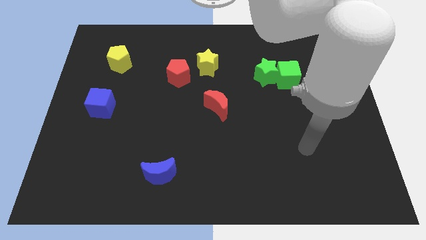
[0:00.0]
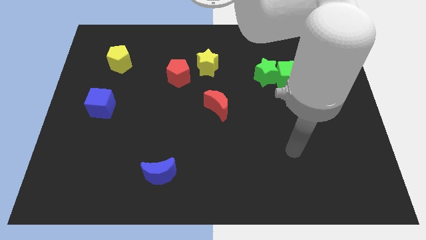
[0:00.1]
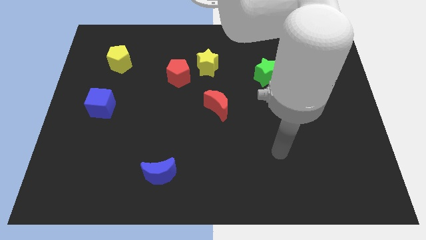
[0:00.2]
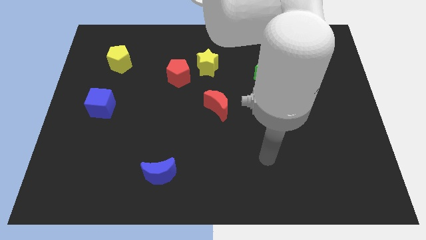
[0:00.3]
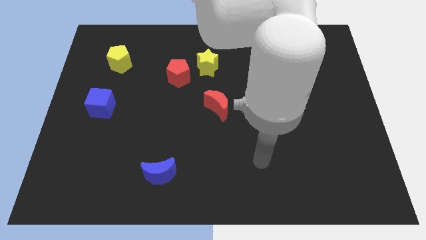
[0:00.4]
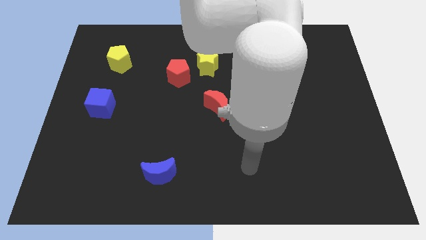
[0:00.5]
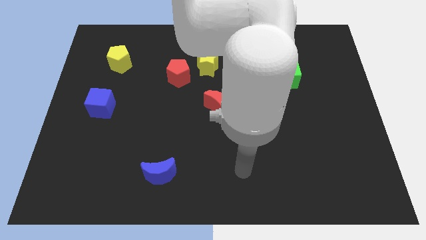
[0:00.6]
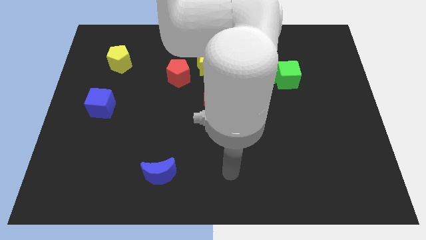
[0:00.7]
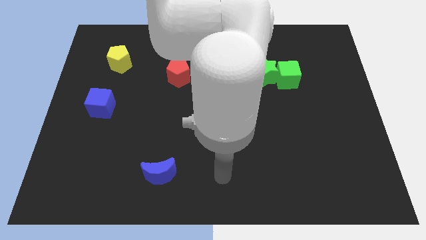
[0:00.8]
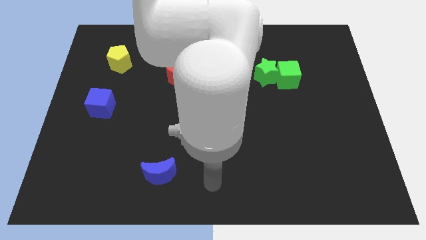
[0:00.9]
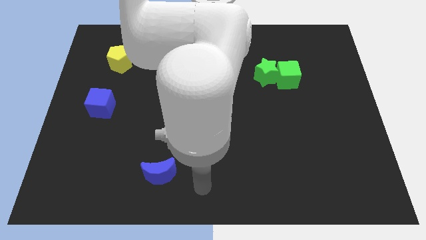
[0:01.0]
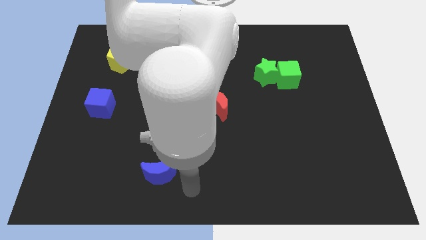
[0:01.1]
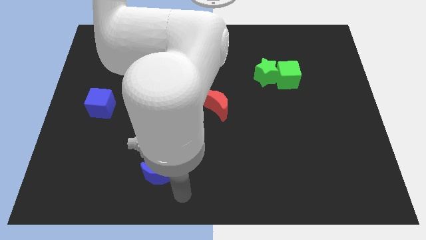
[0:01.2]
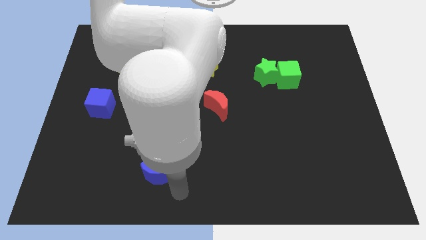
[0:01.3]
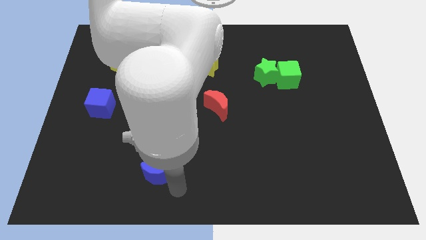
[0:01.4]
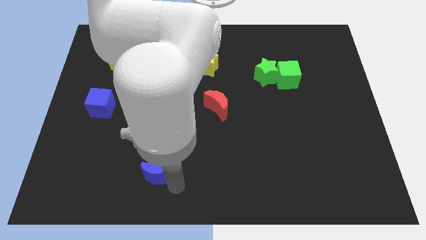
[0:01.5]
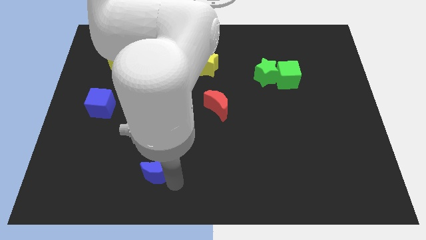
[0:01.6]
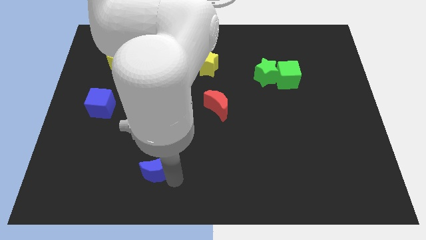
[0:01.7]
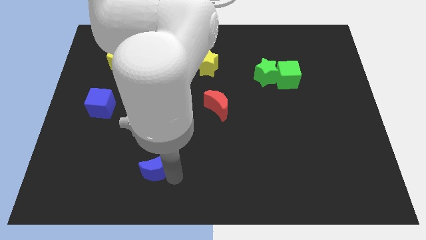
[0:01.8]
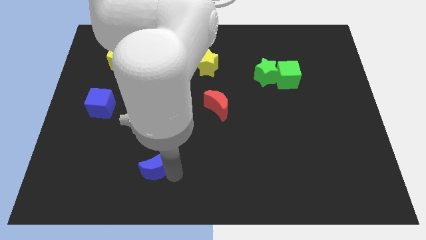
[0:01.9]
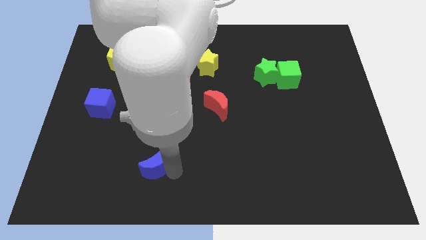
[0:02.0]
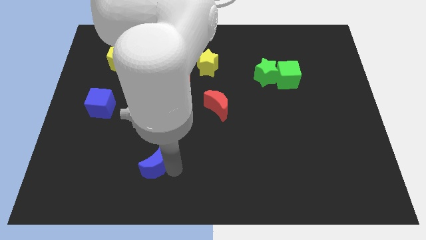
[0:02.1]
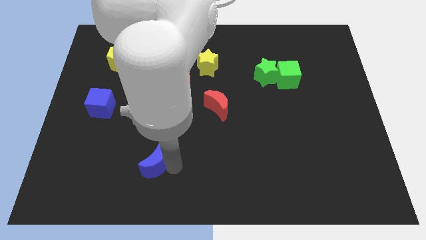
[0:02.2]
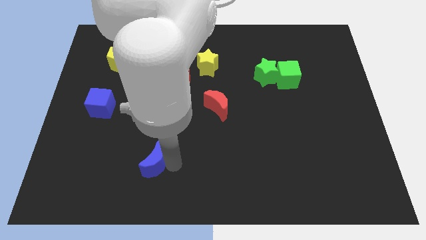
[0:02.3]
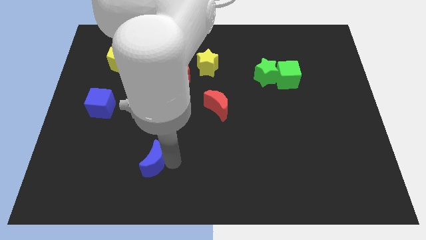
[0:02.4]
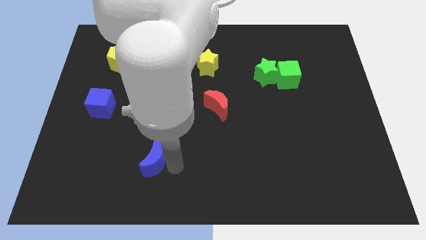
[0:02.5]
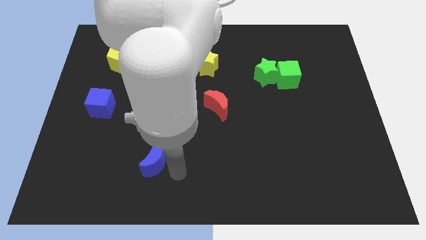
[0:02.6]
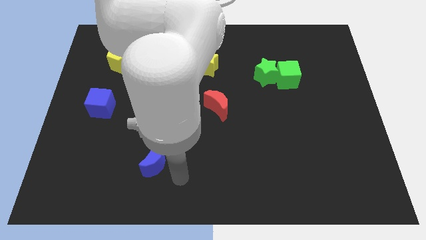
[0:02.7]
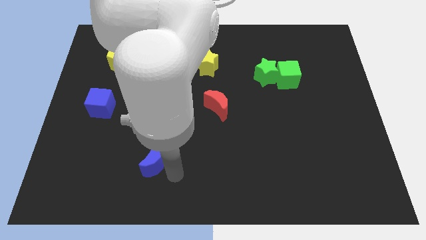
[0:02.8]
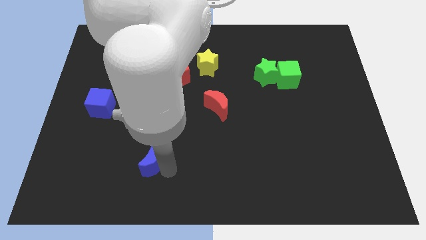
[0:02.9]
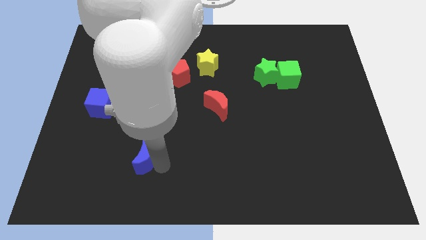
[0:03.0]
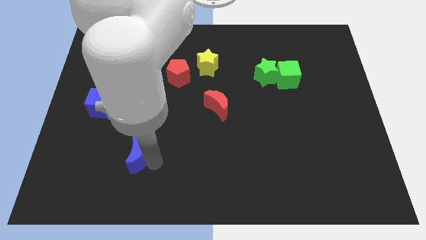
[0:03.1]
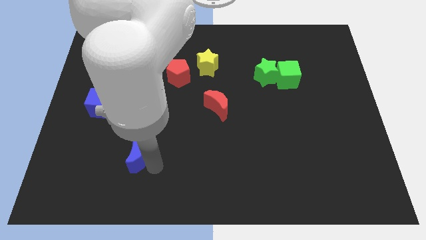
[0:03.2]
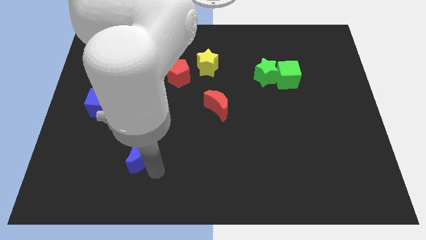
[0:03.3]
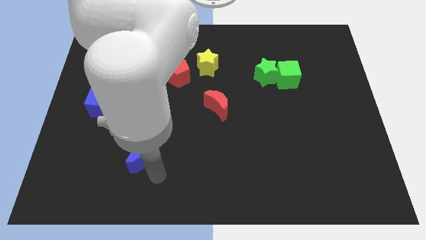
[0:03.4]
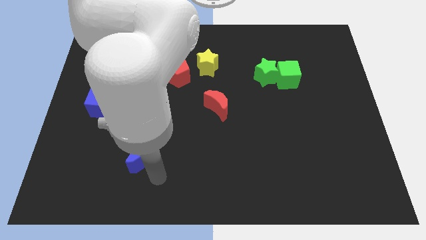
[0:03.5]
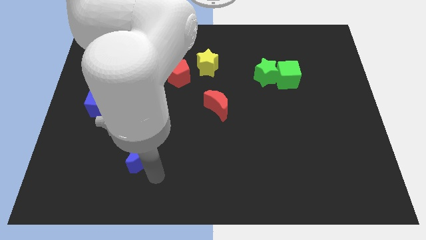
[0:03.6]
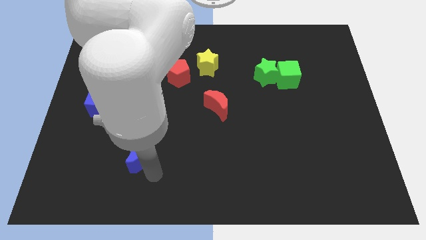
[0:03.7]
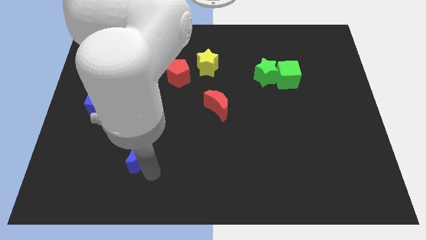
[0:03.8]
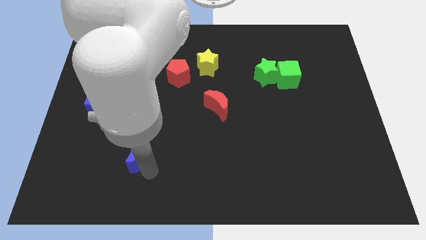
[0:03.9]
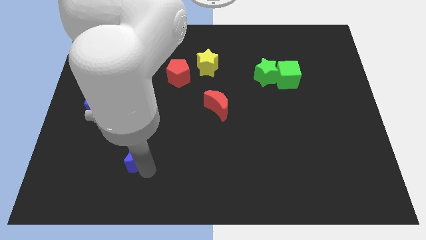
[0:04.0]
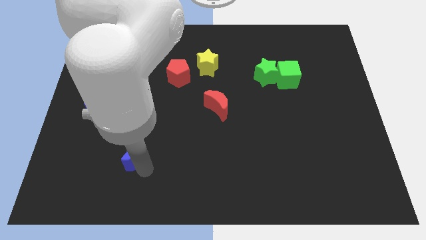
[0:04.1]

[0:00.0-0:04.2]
move the blue moon a bit up and to the left diagonally

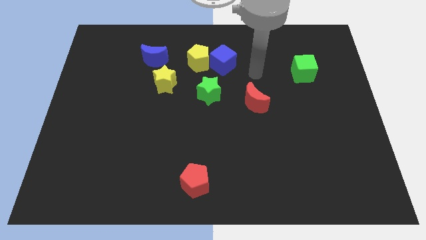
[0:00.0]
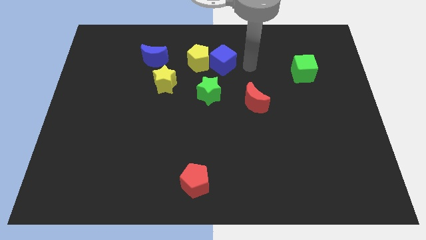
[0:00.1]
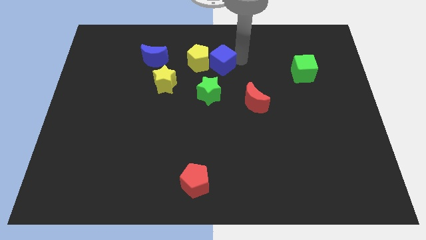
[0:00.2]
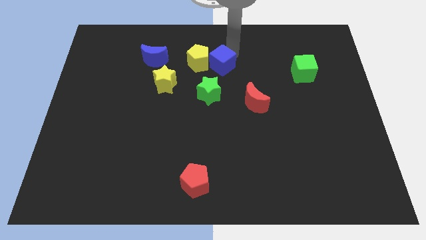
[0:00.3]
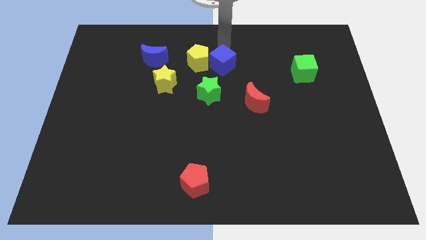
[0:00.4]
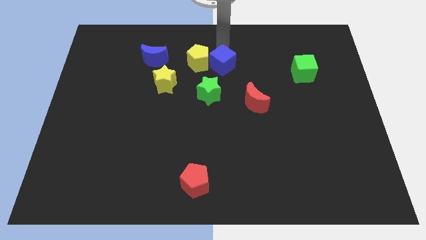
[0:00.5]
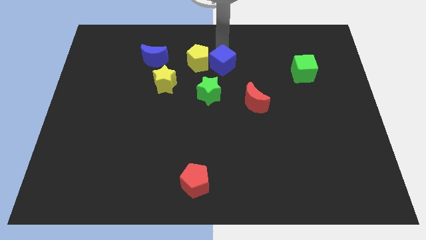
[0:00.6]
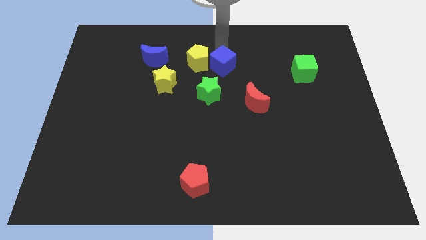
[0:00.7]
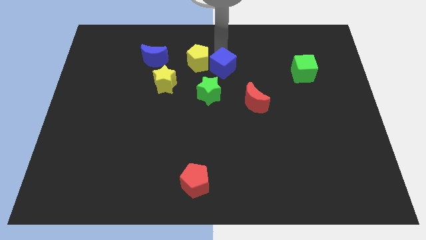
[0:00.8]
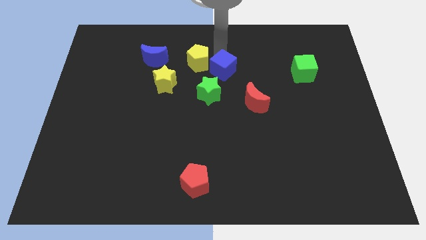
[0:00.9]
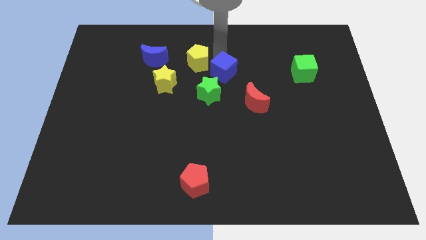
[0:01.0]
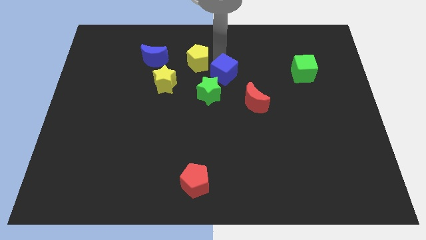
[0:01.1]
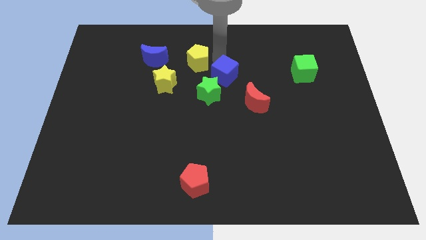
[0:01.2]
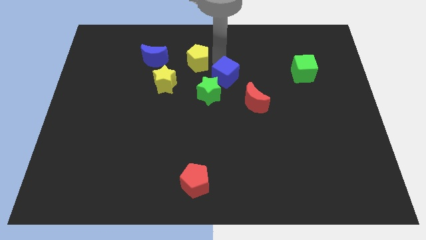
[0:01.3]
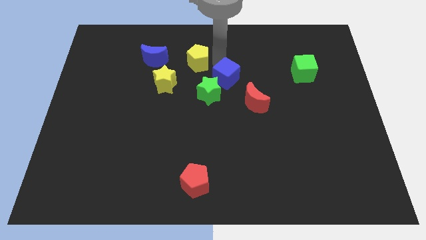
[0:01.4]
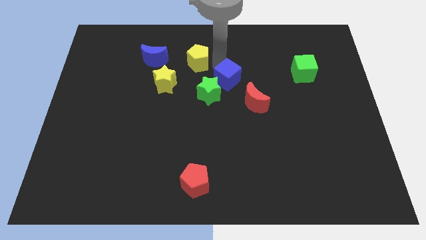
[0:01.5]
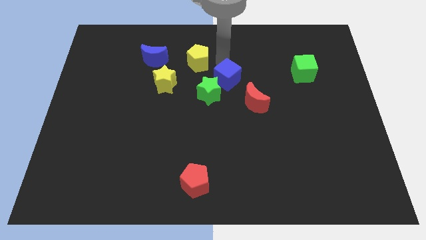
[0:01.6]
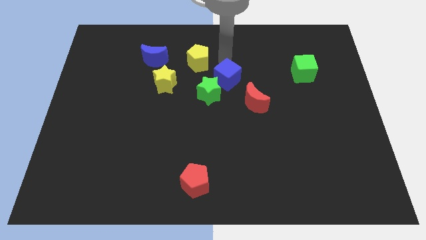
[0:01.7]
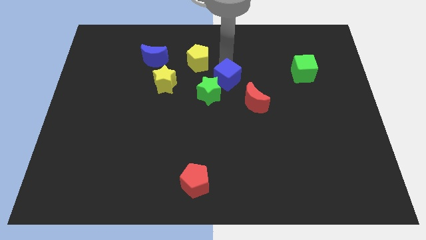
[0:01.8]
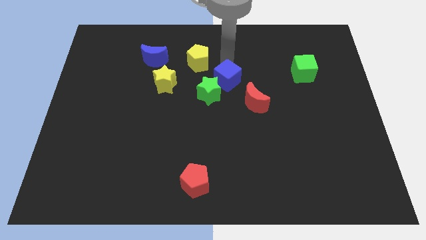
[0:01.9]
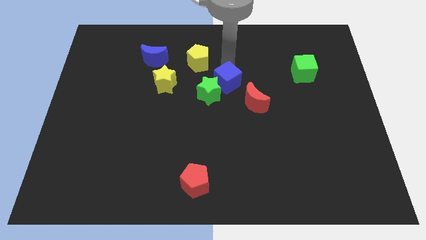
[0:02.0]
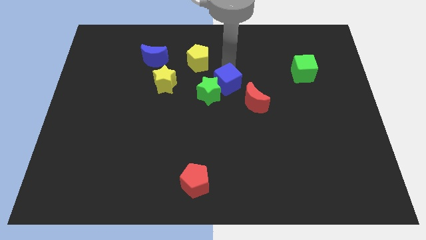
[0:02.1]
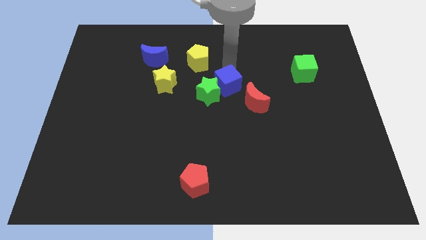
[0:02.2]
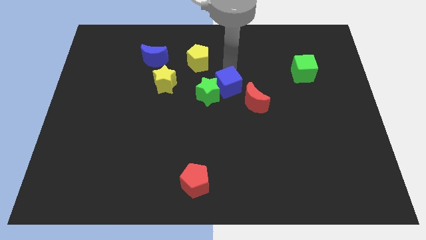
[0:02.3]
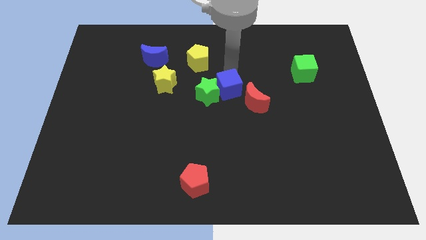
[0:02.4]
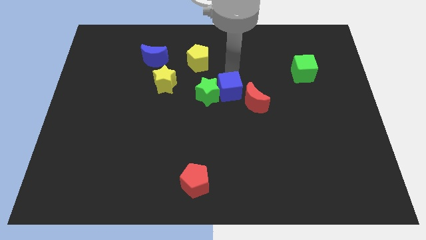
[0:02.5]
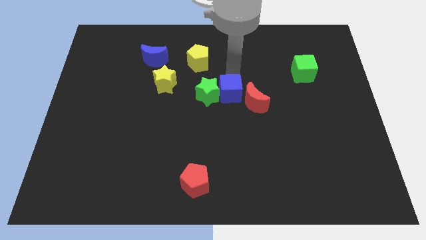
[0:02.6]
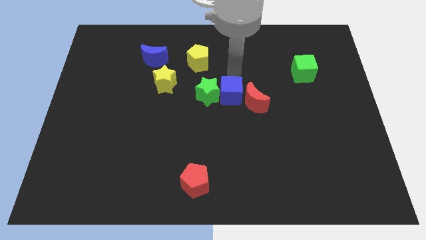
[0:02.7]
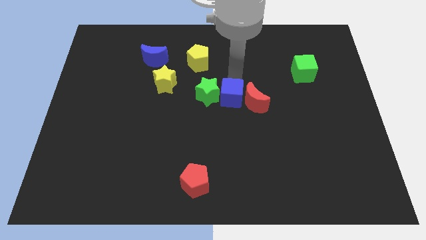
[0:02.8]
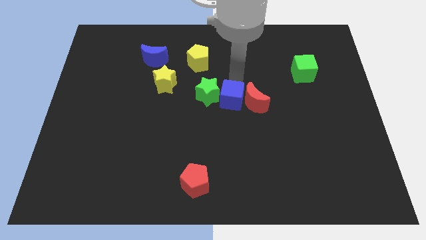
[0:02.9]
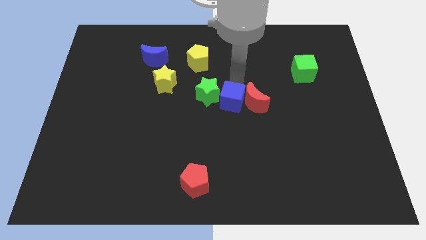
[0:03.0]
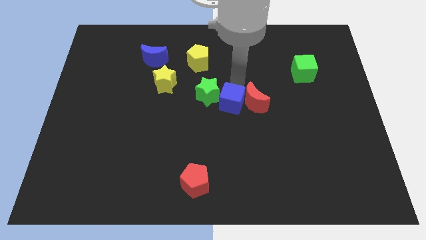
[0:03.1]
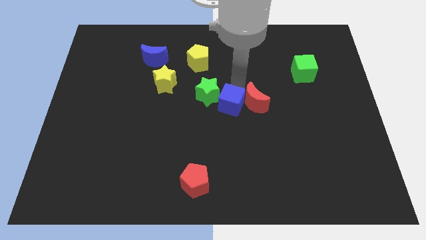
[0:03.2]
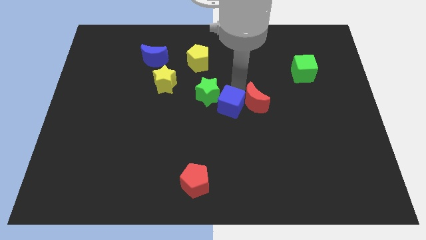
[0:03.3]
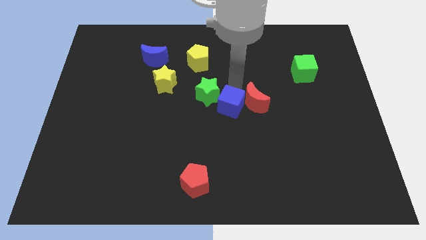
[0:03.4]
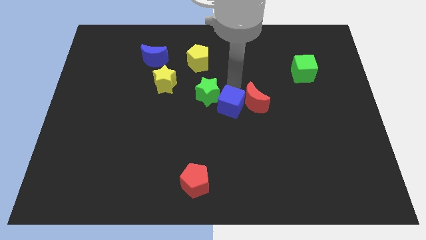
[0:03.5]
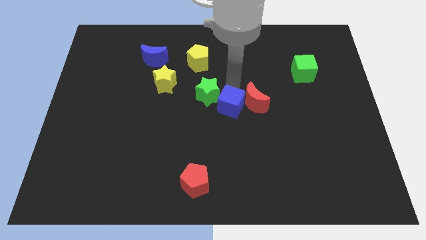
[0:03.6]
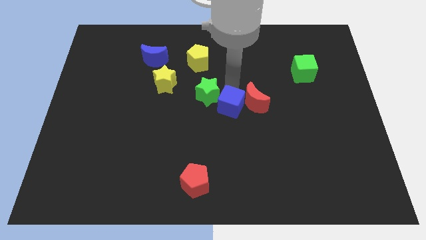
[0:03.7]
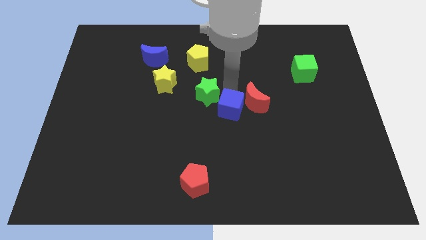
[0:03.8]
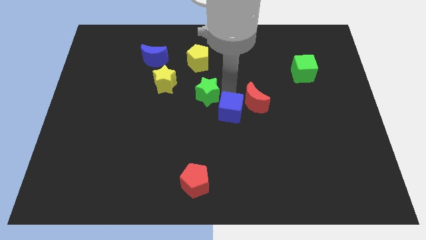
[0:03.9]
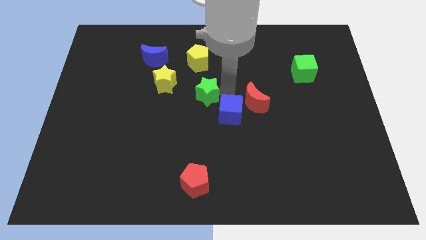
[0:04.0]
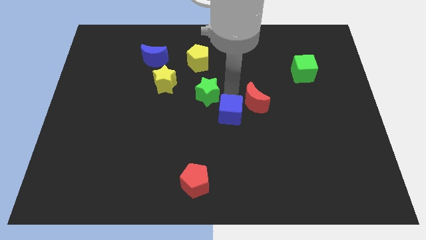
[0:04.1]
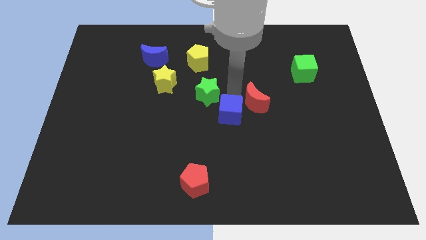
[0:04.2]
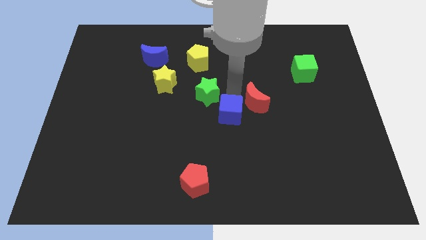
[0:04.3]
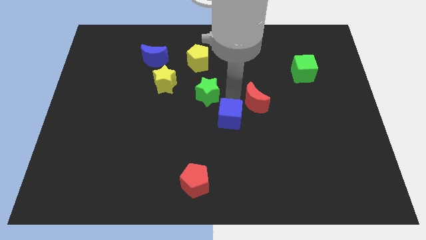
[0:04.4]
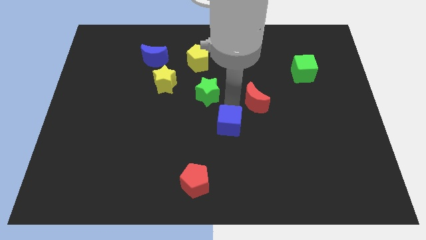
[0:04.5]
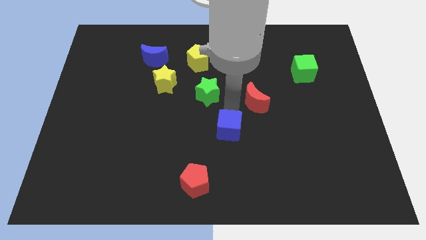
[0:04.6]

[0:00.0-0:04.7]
slide the blue cube down
